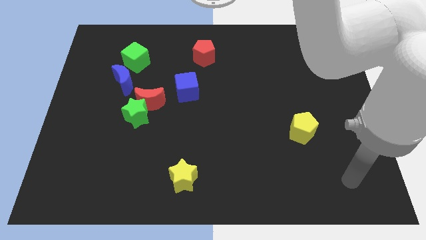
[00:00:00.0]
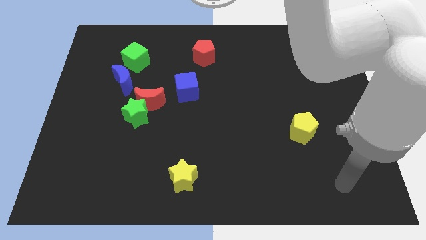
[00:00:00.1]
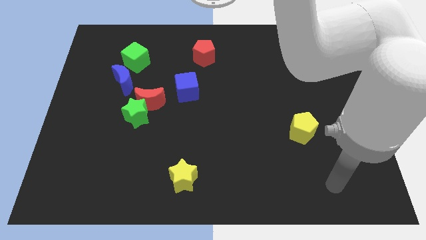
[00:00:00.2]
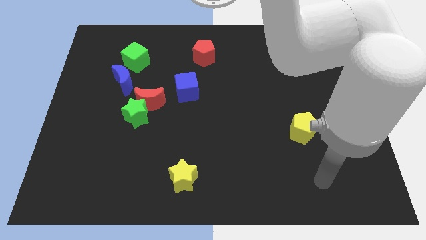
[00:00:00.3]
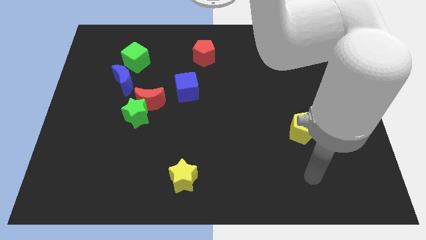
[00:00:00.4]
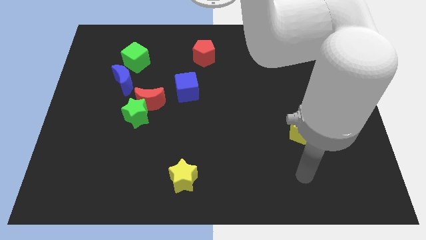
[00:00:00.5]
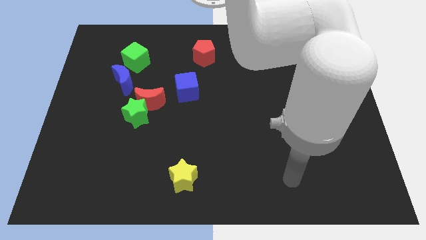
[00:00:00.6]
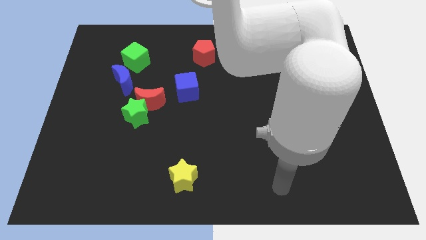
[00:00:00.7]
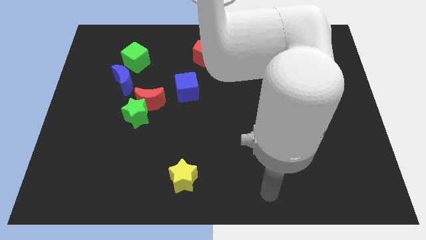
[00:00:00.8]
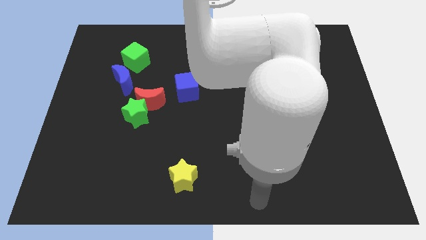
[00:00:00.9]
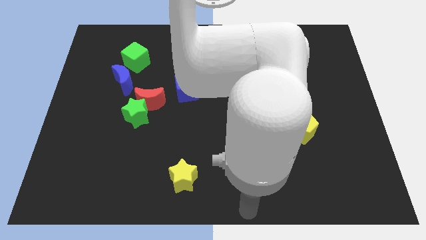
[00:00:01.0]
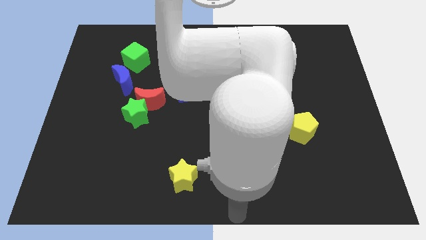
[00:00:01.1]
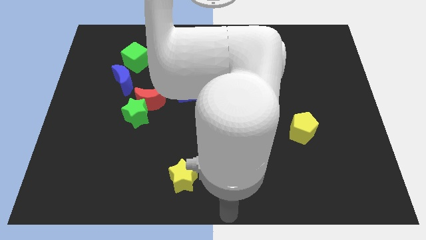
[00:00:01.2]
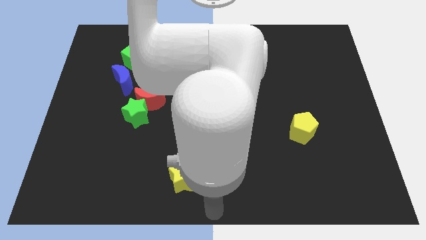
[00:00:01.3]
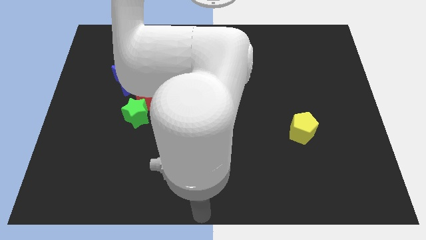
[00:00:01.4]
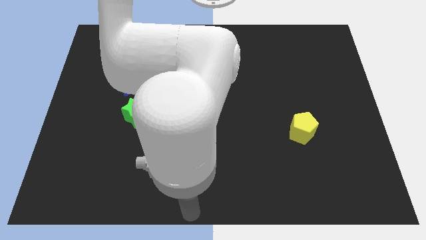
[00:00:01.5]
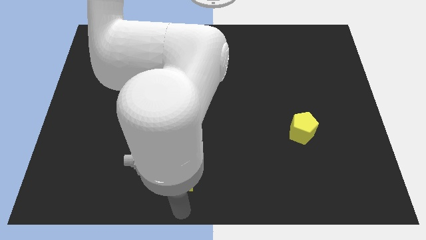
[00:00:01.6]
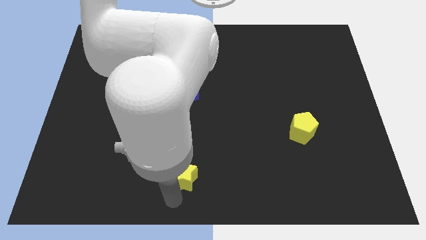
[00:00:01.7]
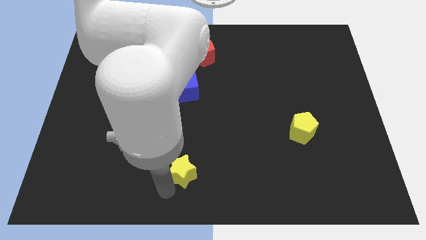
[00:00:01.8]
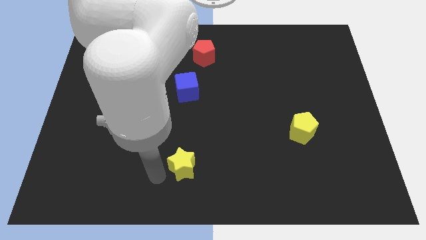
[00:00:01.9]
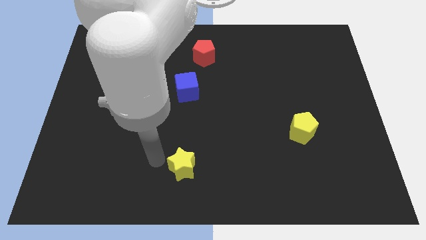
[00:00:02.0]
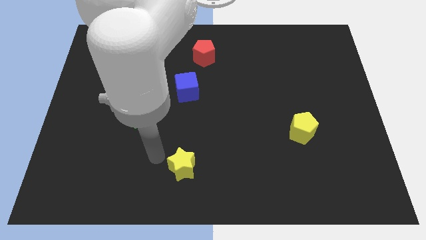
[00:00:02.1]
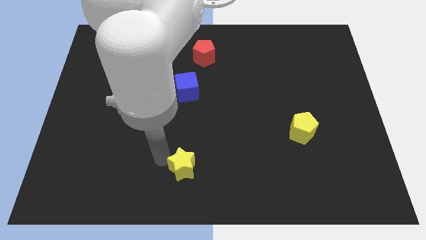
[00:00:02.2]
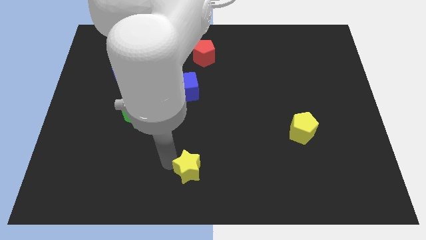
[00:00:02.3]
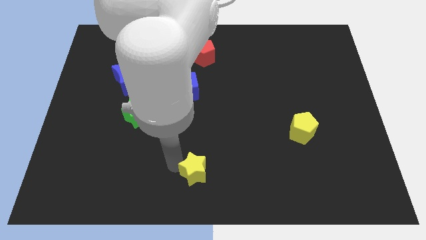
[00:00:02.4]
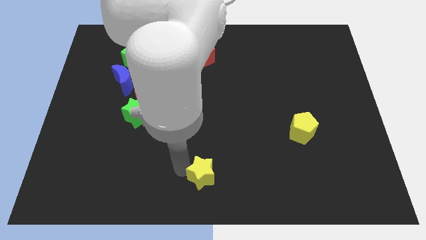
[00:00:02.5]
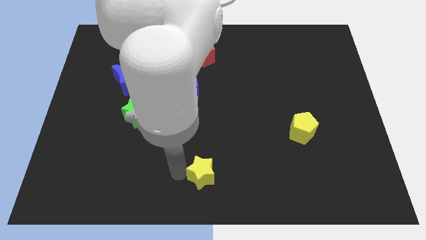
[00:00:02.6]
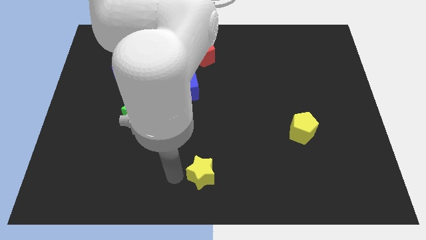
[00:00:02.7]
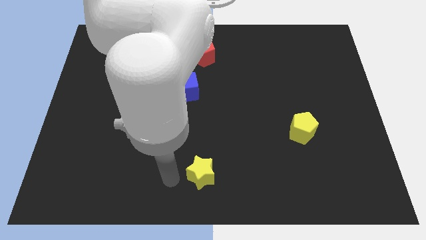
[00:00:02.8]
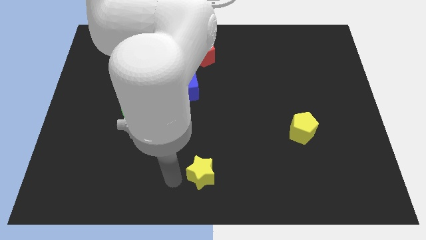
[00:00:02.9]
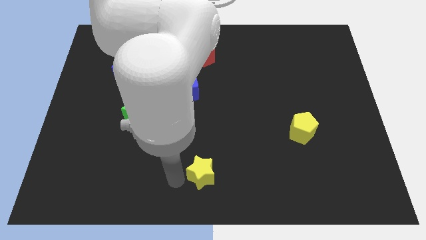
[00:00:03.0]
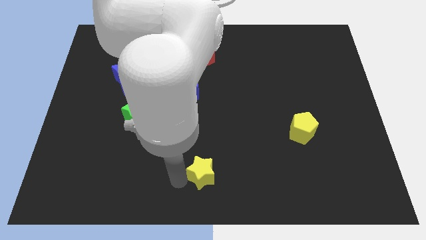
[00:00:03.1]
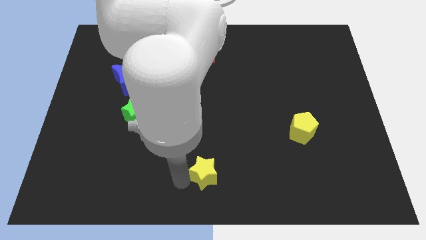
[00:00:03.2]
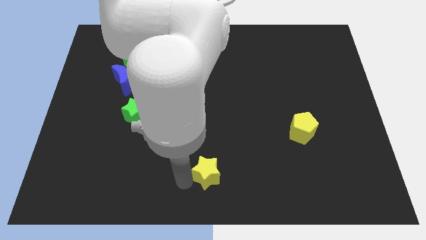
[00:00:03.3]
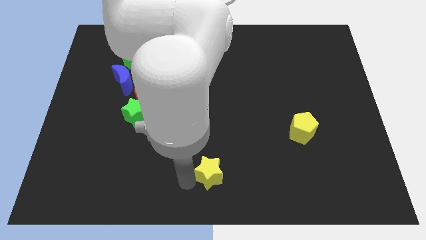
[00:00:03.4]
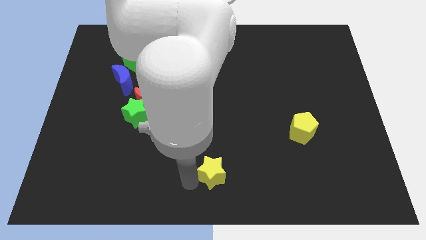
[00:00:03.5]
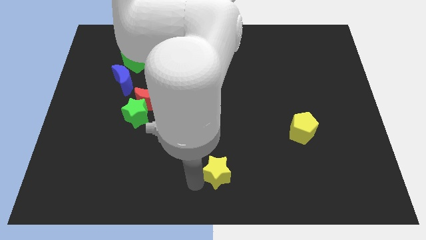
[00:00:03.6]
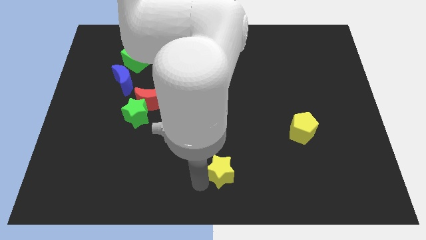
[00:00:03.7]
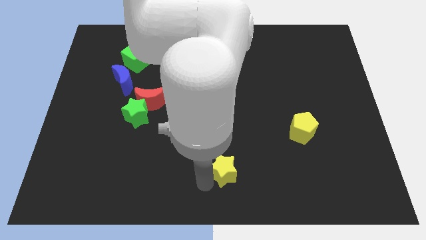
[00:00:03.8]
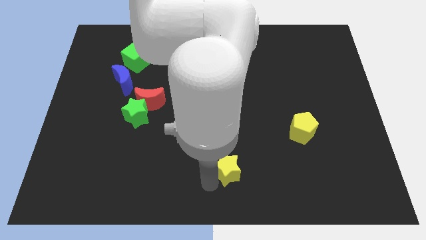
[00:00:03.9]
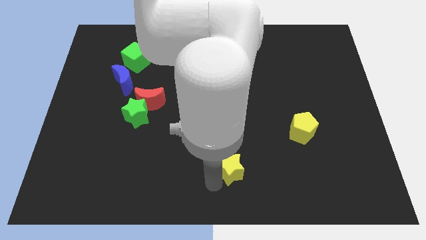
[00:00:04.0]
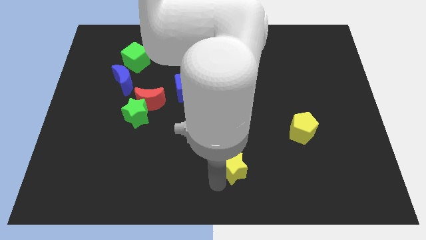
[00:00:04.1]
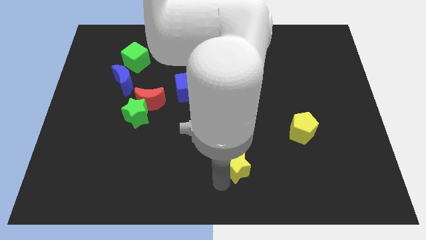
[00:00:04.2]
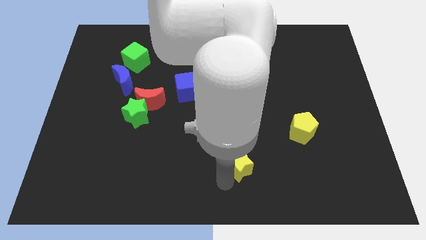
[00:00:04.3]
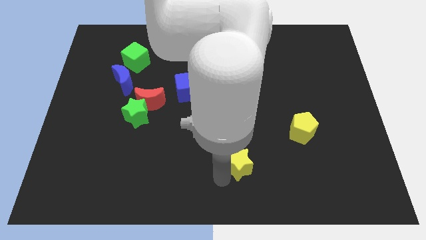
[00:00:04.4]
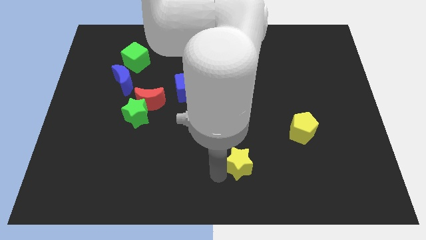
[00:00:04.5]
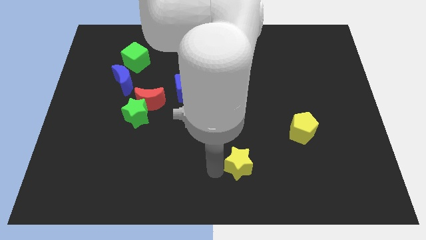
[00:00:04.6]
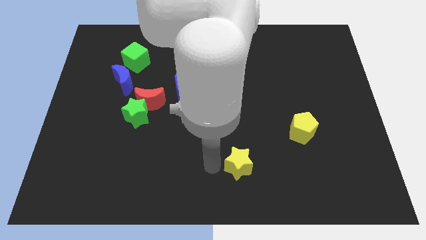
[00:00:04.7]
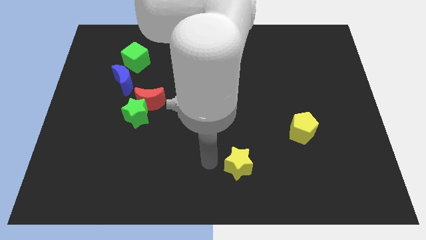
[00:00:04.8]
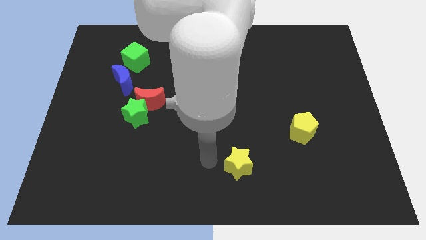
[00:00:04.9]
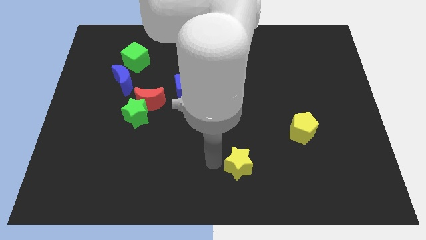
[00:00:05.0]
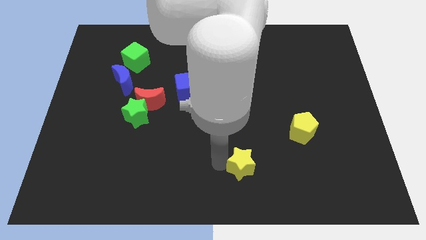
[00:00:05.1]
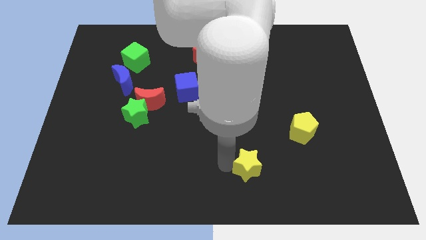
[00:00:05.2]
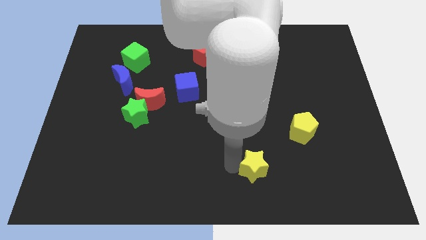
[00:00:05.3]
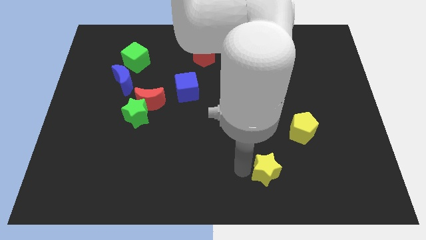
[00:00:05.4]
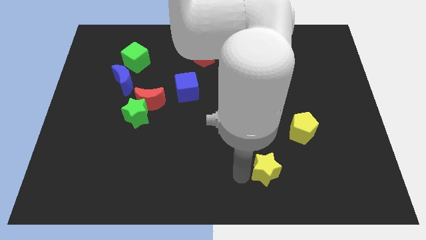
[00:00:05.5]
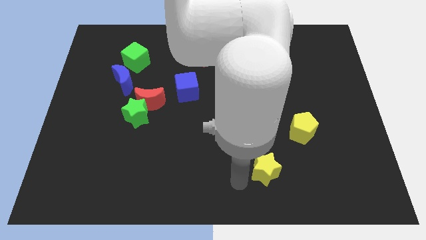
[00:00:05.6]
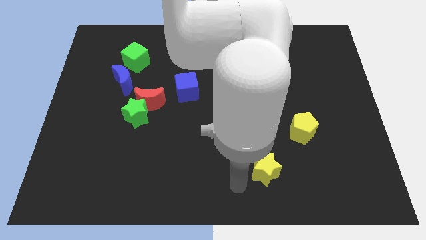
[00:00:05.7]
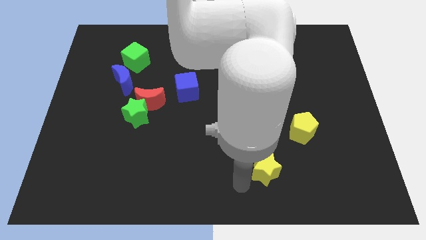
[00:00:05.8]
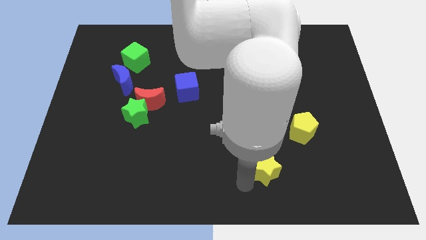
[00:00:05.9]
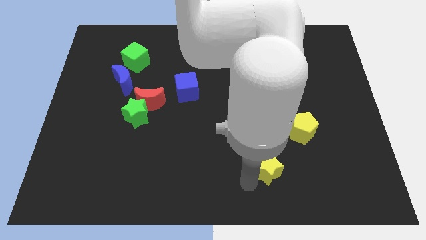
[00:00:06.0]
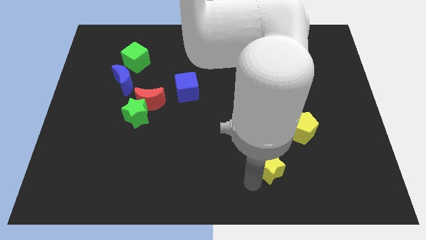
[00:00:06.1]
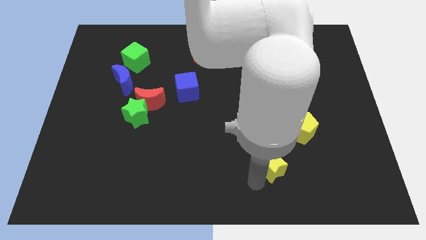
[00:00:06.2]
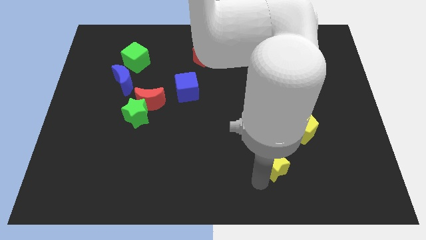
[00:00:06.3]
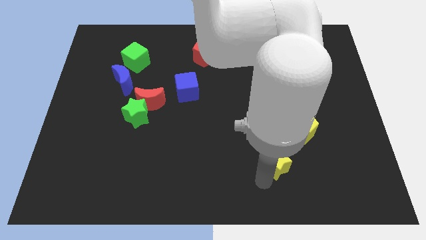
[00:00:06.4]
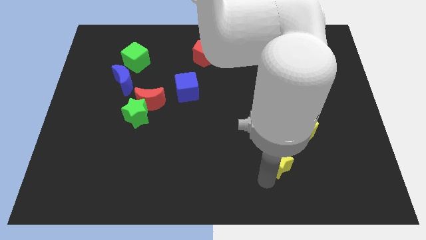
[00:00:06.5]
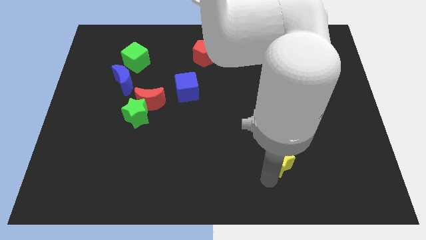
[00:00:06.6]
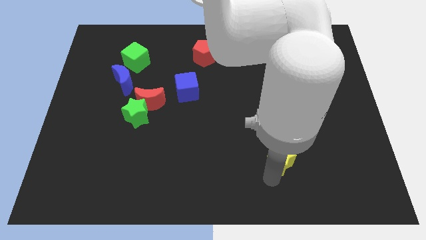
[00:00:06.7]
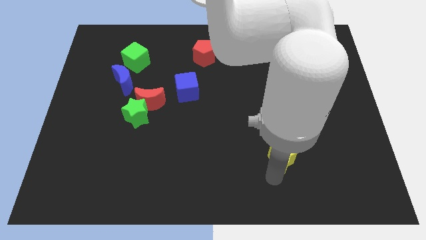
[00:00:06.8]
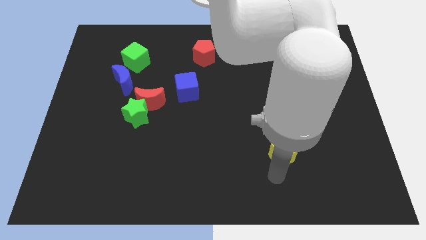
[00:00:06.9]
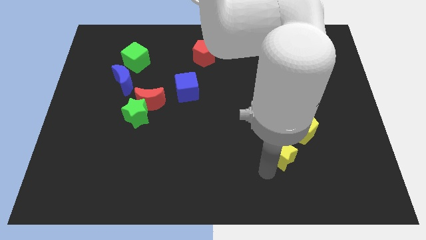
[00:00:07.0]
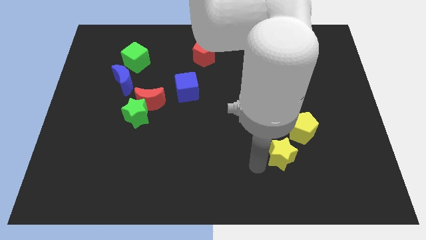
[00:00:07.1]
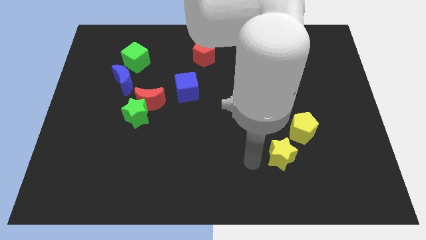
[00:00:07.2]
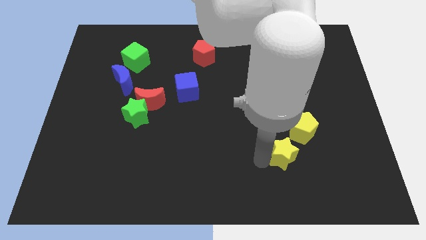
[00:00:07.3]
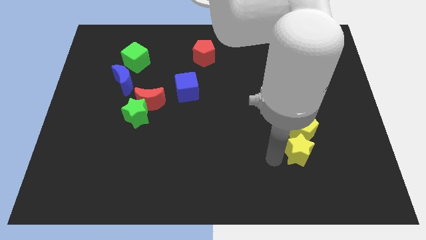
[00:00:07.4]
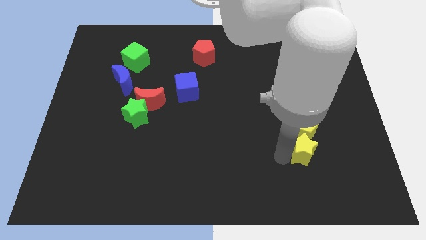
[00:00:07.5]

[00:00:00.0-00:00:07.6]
put the yellow star diagonally down and to the right of the yellow pentagon
